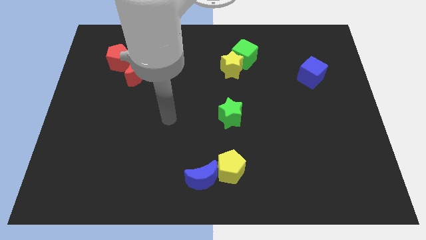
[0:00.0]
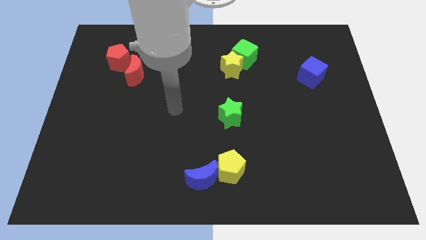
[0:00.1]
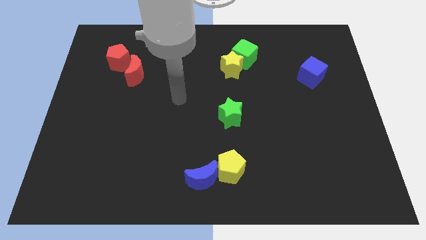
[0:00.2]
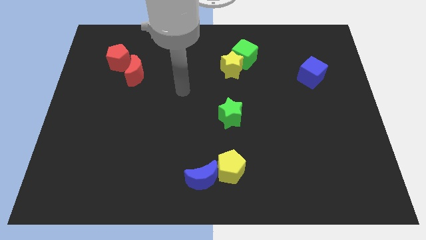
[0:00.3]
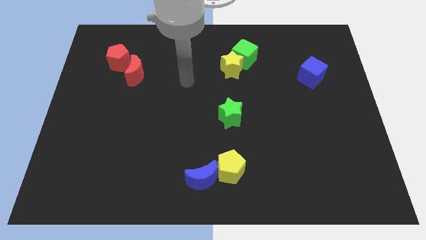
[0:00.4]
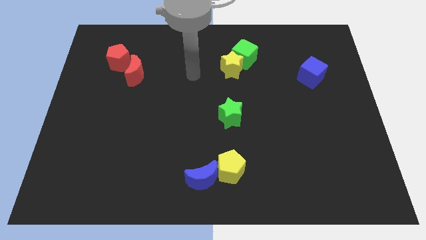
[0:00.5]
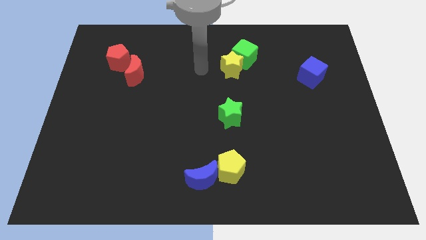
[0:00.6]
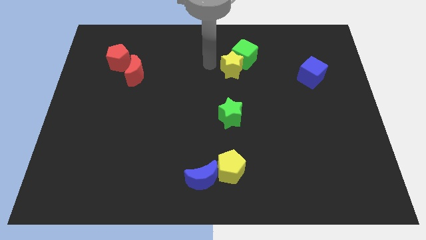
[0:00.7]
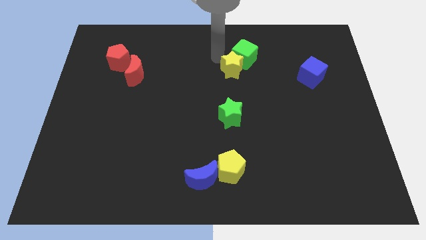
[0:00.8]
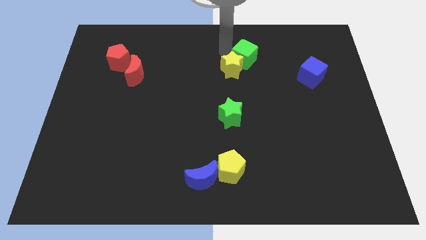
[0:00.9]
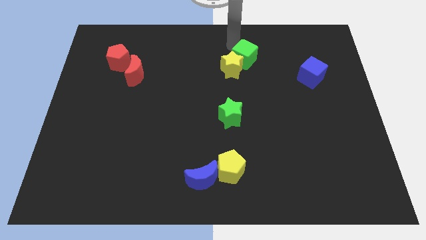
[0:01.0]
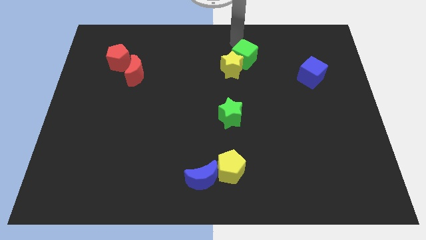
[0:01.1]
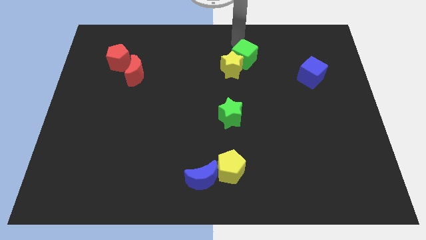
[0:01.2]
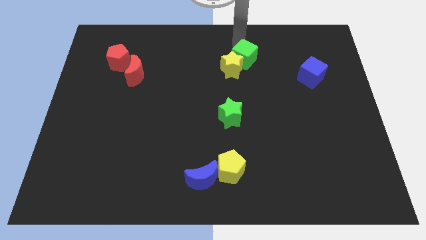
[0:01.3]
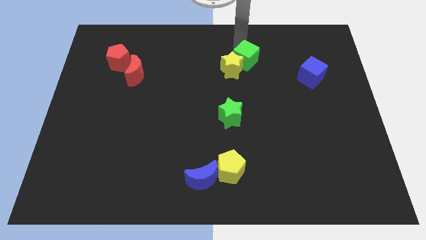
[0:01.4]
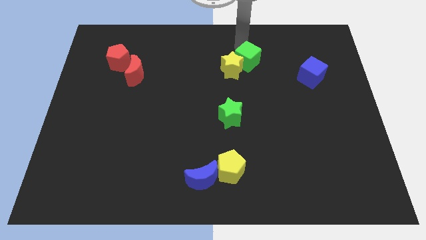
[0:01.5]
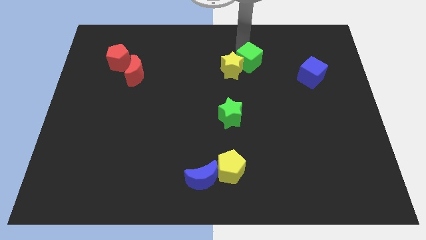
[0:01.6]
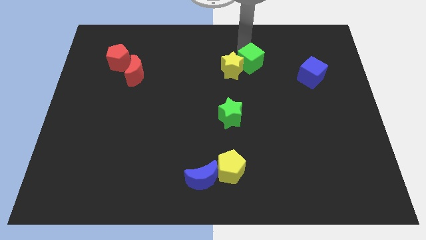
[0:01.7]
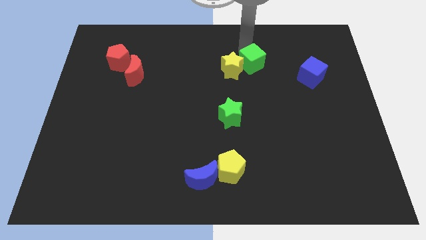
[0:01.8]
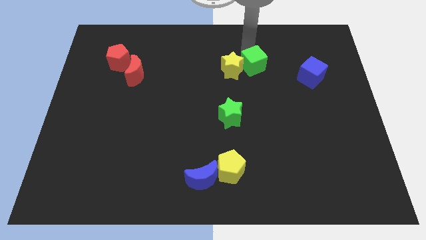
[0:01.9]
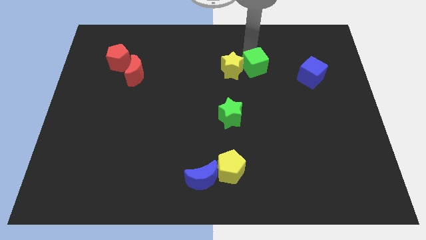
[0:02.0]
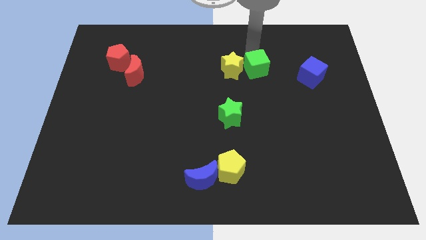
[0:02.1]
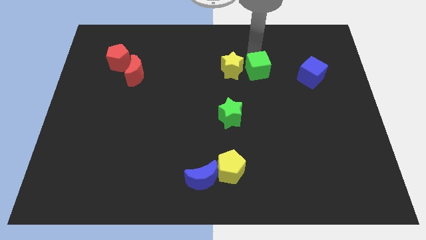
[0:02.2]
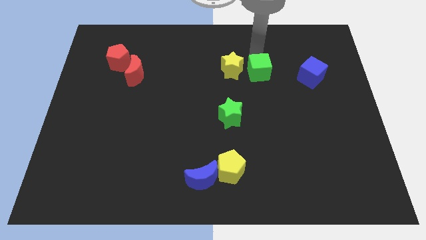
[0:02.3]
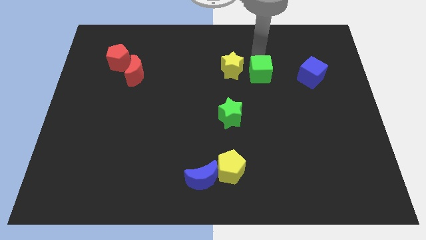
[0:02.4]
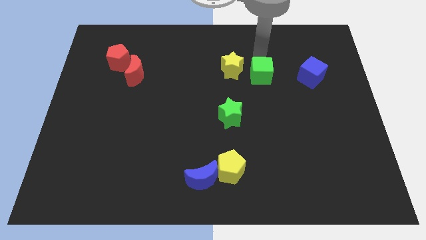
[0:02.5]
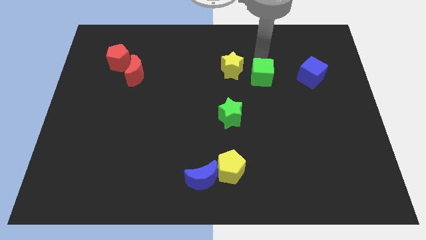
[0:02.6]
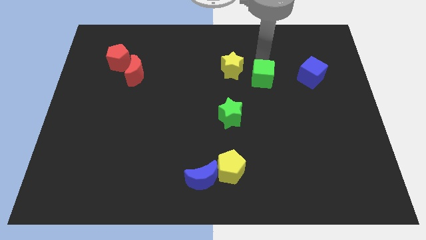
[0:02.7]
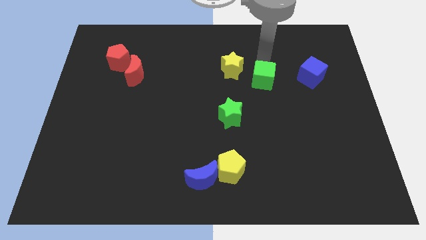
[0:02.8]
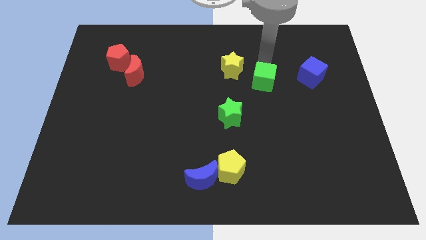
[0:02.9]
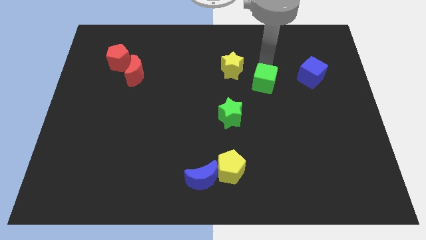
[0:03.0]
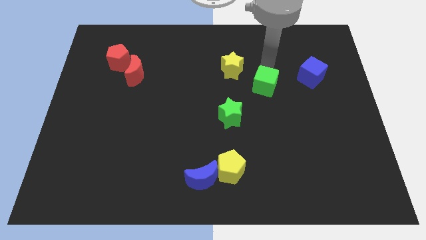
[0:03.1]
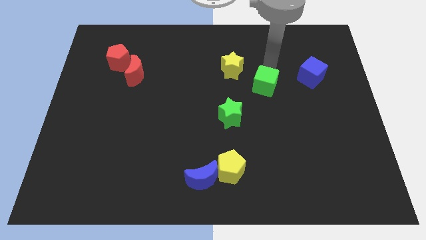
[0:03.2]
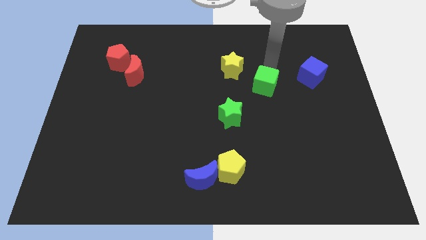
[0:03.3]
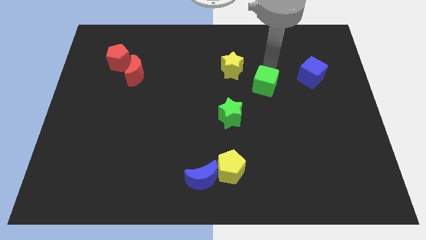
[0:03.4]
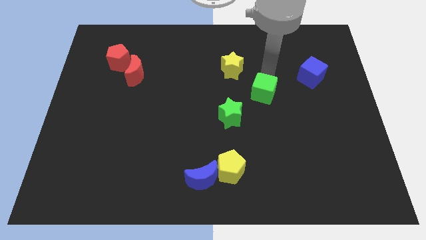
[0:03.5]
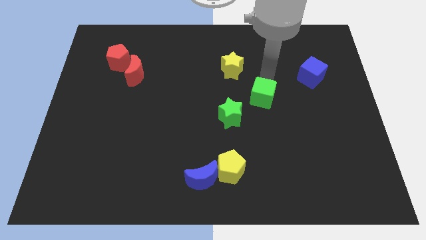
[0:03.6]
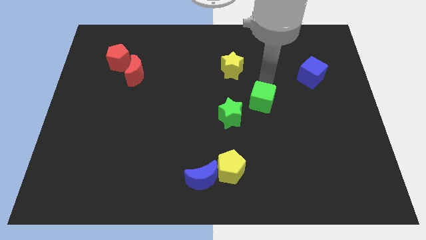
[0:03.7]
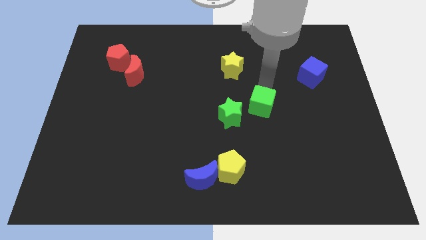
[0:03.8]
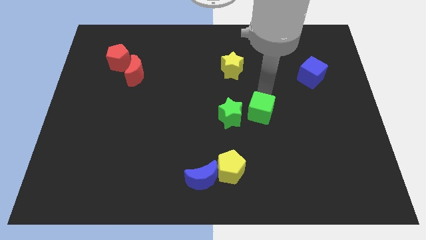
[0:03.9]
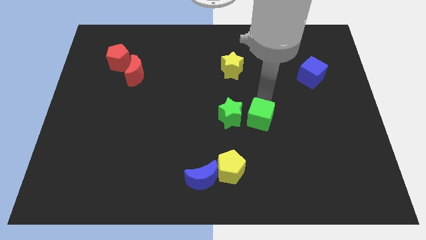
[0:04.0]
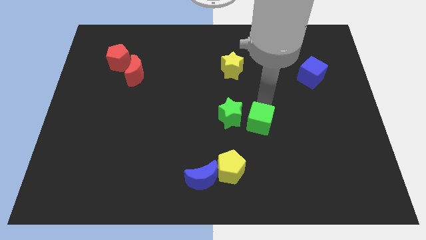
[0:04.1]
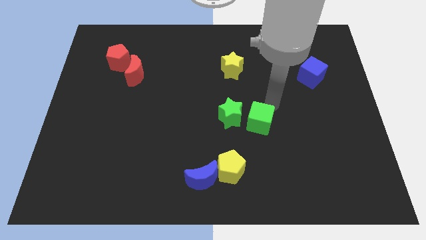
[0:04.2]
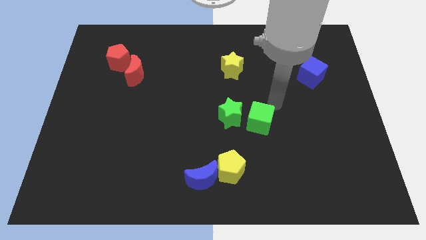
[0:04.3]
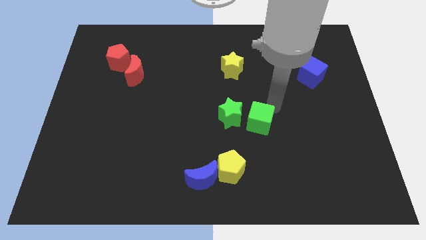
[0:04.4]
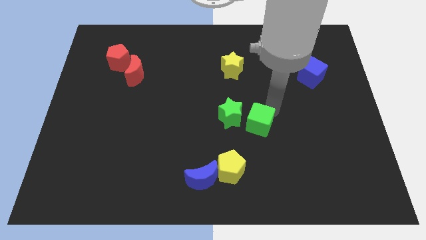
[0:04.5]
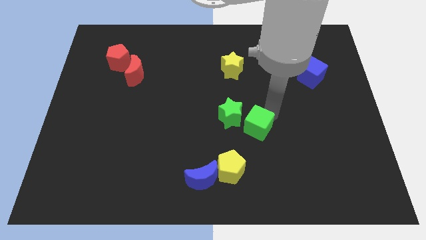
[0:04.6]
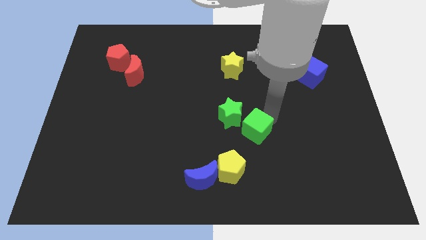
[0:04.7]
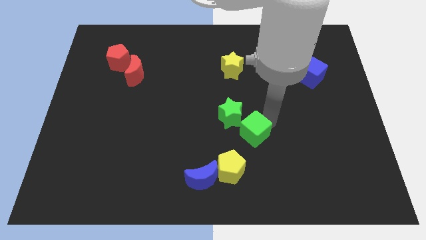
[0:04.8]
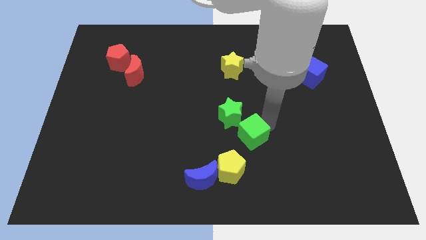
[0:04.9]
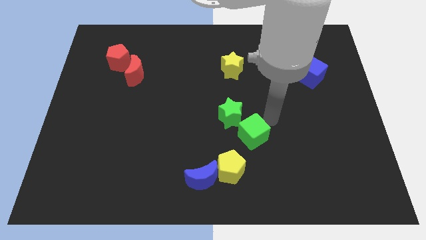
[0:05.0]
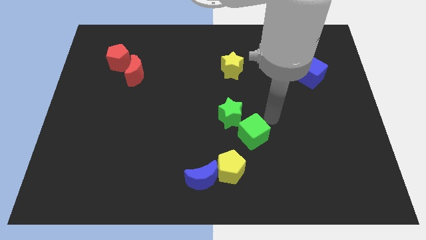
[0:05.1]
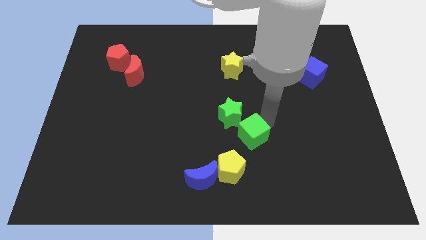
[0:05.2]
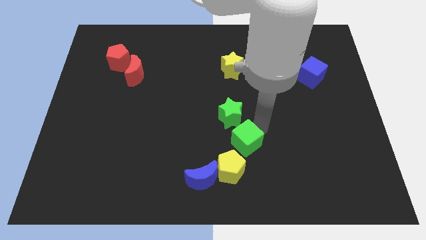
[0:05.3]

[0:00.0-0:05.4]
slide the green cube to the top right side of the blue moon

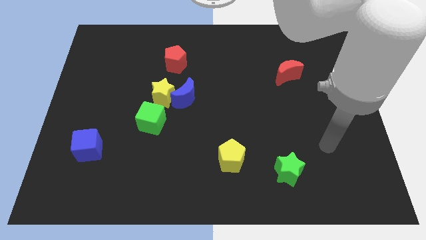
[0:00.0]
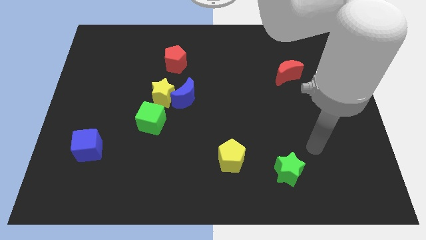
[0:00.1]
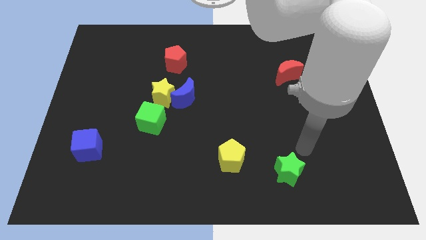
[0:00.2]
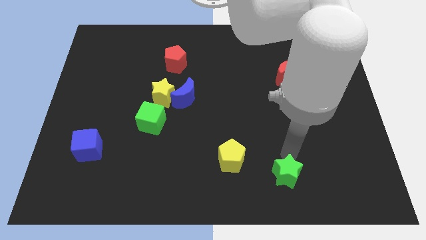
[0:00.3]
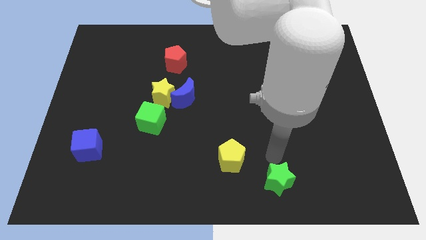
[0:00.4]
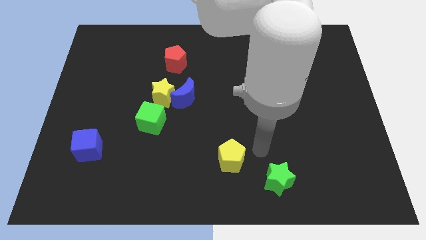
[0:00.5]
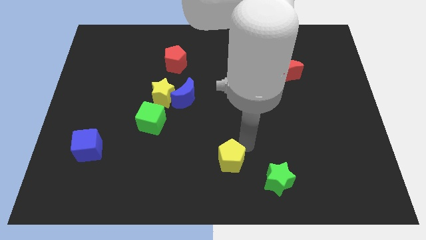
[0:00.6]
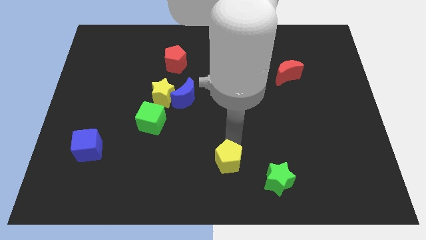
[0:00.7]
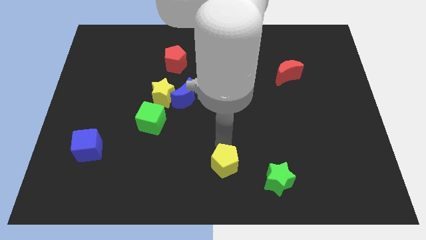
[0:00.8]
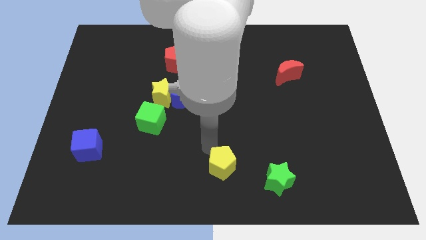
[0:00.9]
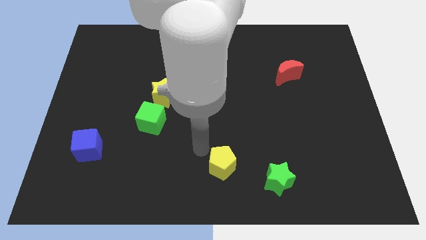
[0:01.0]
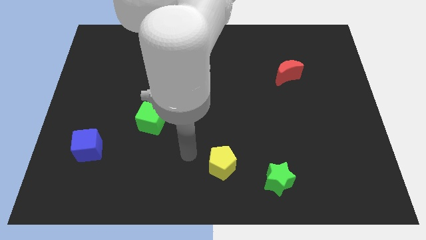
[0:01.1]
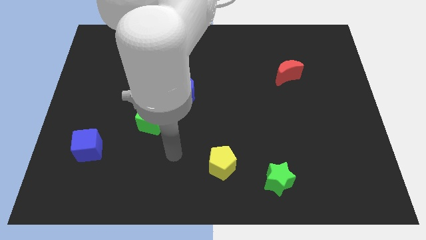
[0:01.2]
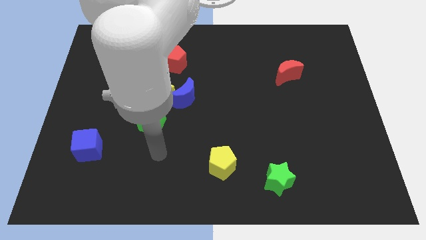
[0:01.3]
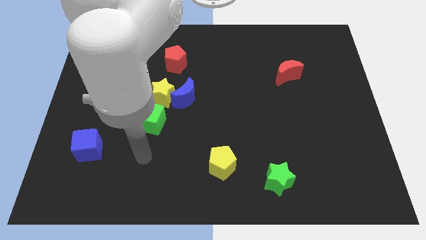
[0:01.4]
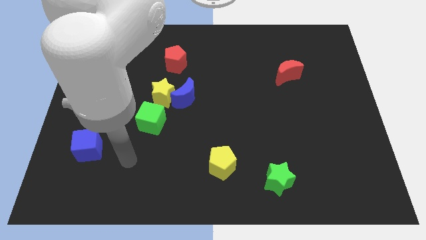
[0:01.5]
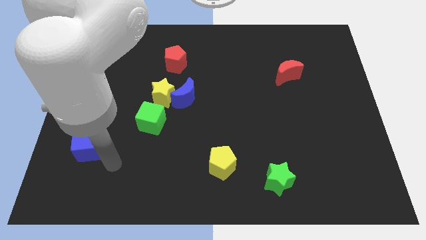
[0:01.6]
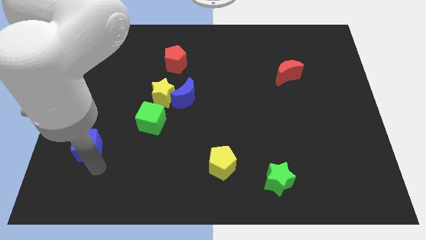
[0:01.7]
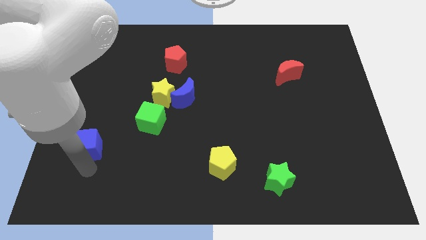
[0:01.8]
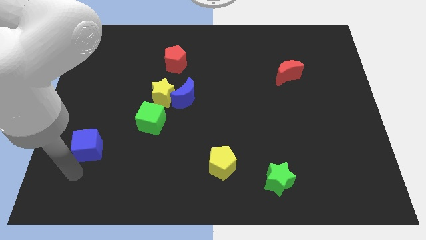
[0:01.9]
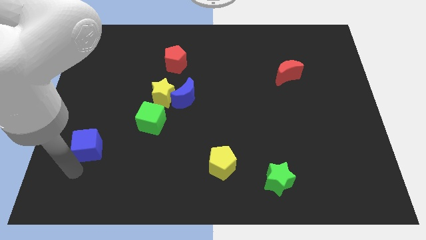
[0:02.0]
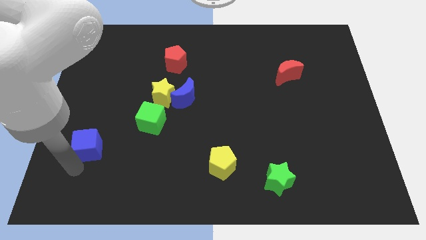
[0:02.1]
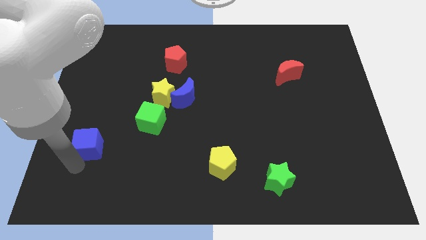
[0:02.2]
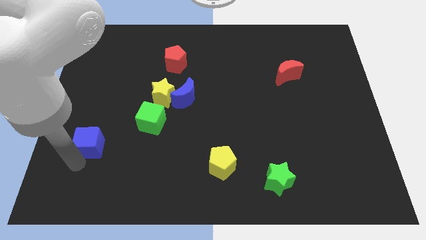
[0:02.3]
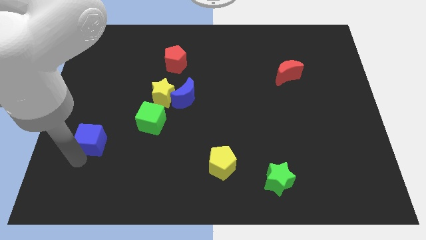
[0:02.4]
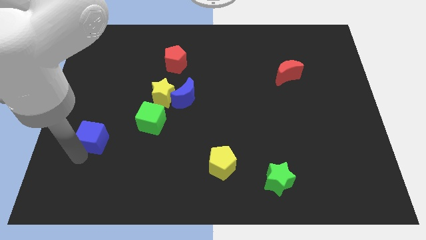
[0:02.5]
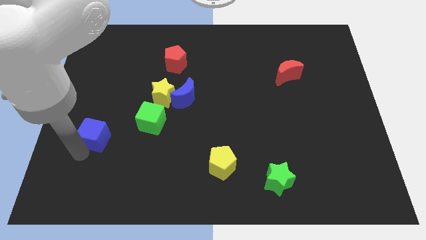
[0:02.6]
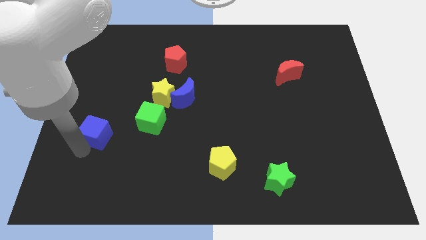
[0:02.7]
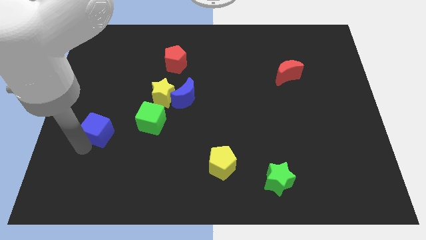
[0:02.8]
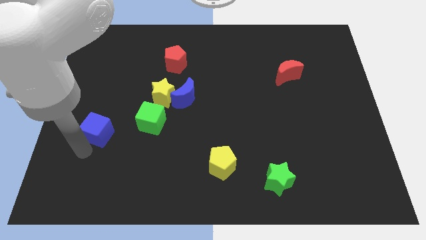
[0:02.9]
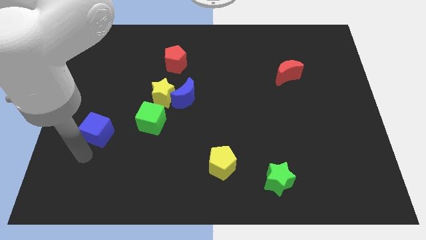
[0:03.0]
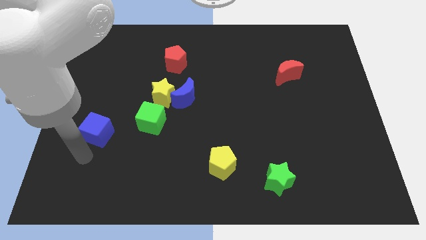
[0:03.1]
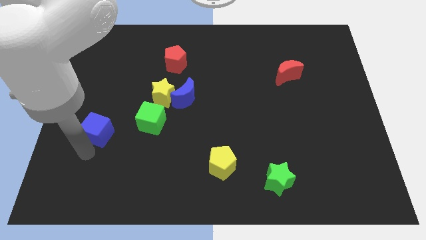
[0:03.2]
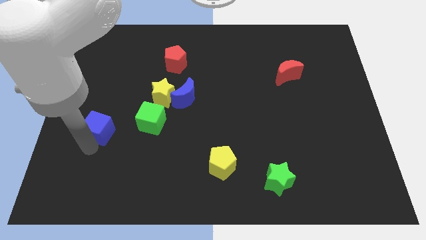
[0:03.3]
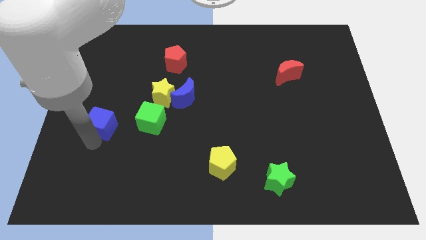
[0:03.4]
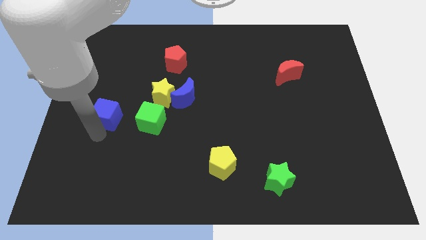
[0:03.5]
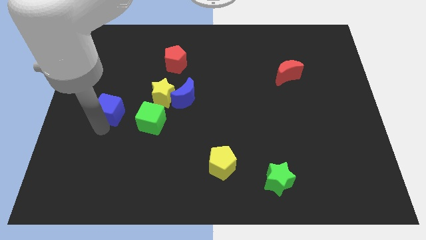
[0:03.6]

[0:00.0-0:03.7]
push the blue cube left of the yellow star
